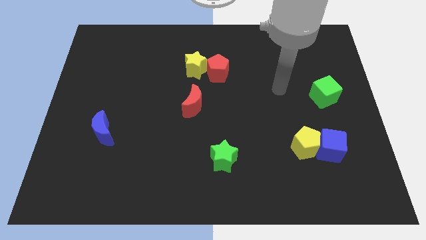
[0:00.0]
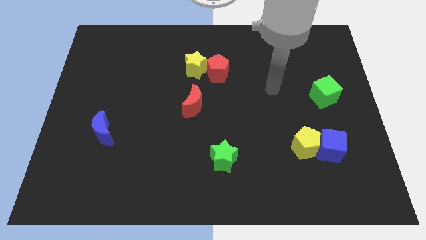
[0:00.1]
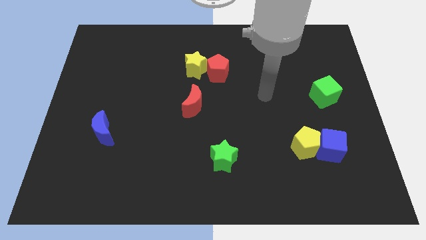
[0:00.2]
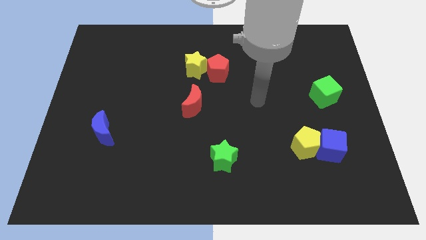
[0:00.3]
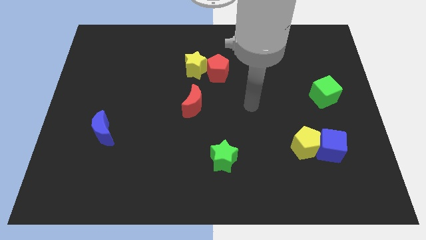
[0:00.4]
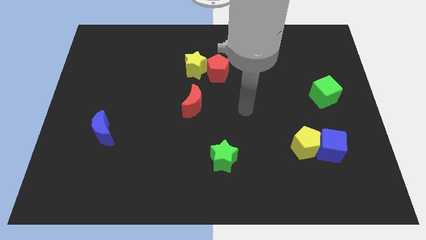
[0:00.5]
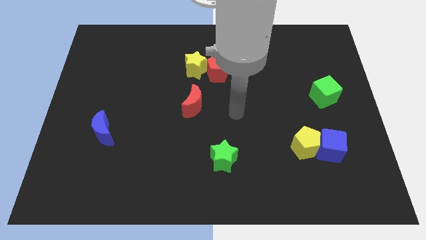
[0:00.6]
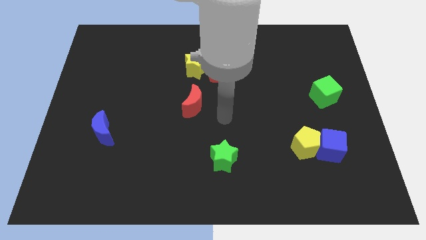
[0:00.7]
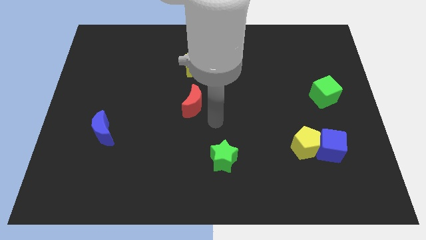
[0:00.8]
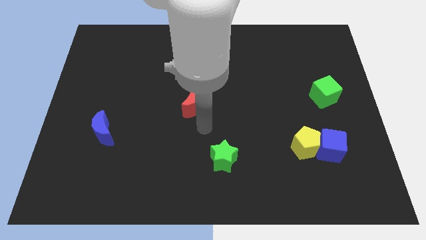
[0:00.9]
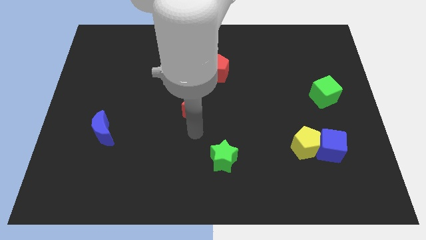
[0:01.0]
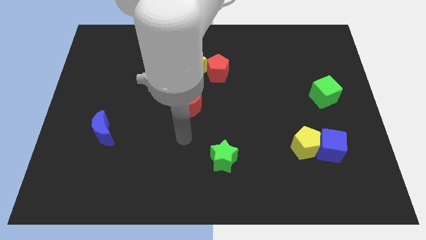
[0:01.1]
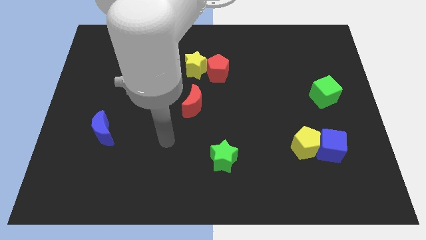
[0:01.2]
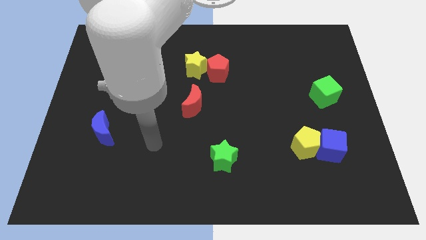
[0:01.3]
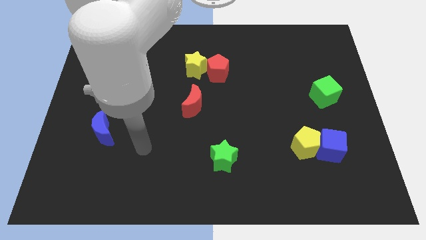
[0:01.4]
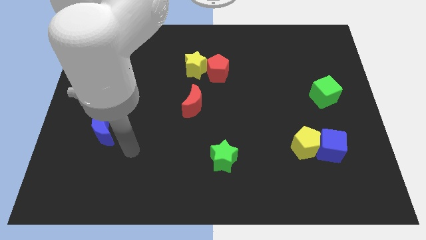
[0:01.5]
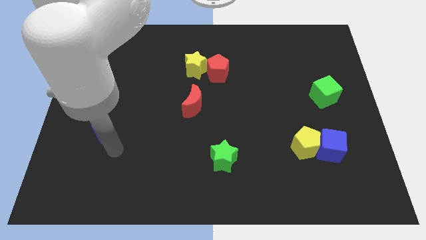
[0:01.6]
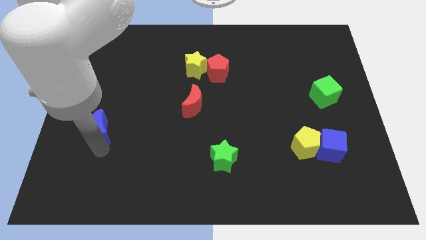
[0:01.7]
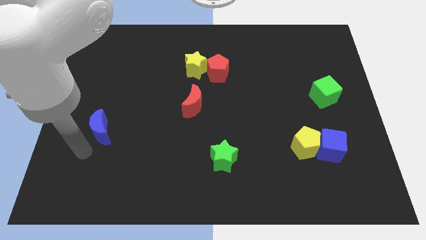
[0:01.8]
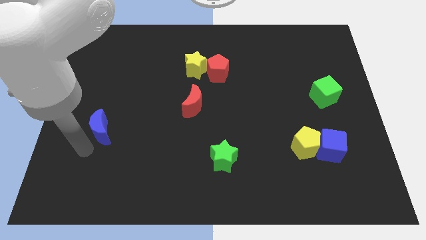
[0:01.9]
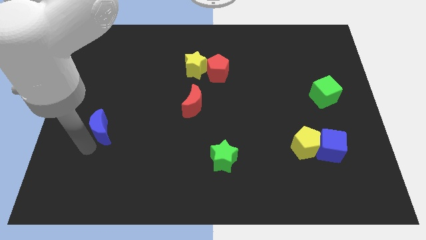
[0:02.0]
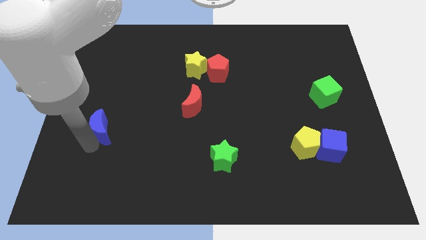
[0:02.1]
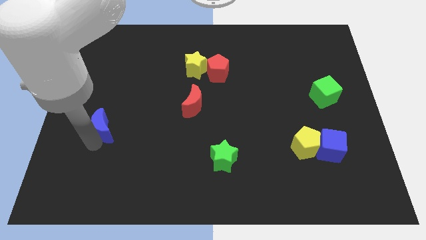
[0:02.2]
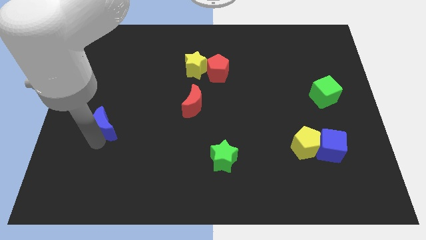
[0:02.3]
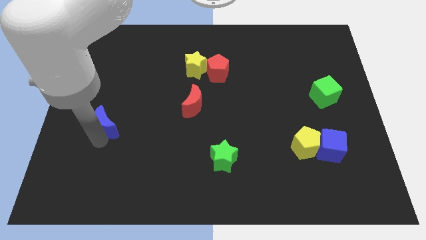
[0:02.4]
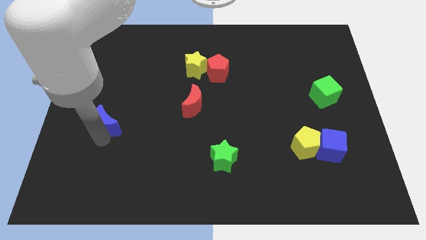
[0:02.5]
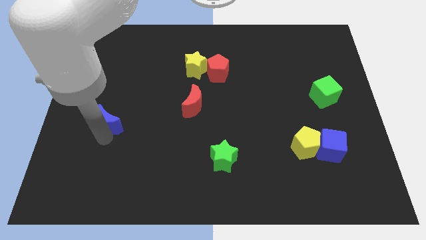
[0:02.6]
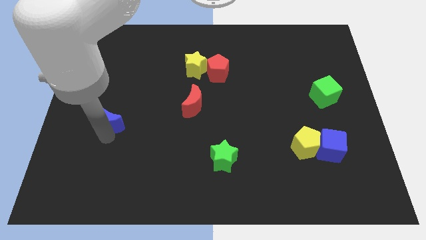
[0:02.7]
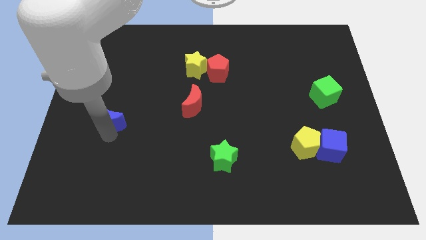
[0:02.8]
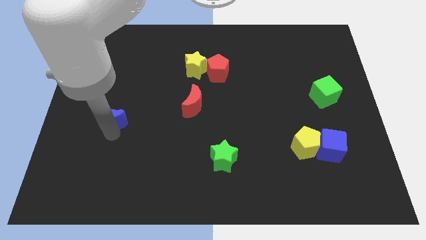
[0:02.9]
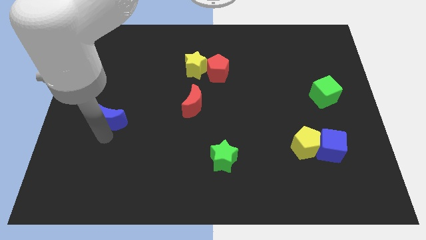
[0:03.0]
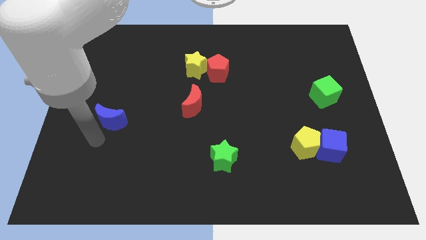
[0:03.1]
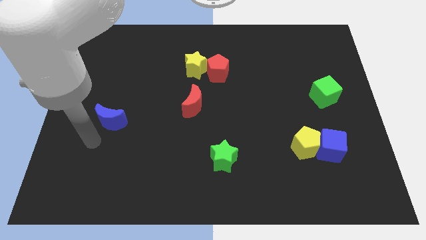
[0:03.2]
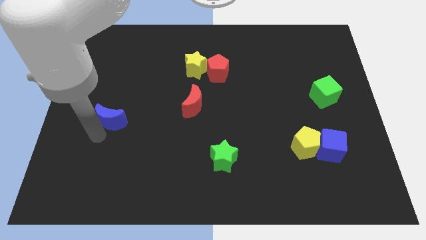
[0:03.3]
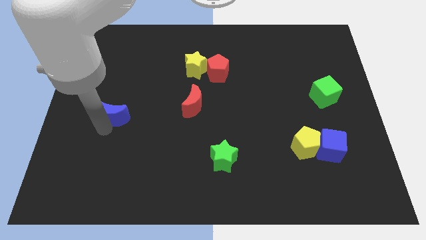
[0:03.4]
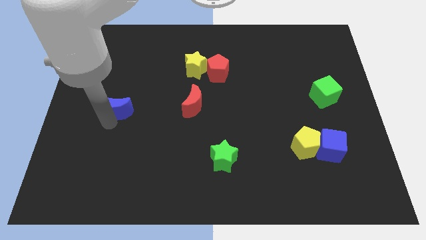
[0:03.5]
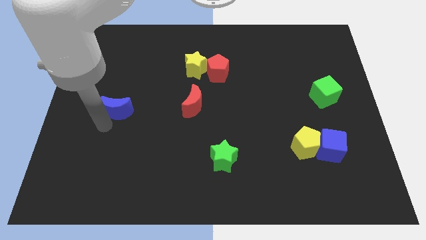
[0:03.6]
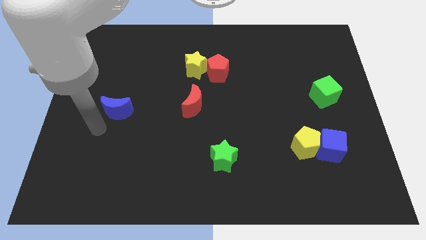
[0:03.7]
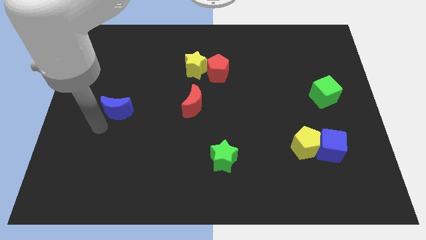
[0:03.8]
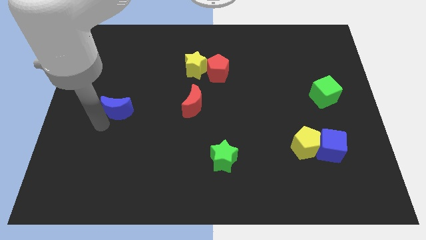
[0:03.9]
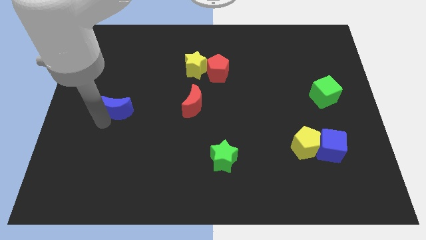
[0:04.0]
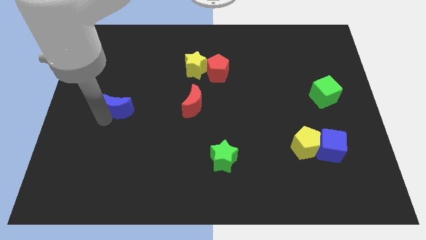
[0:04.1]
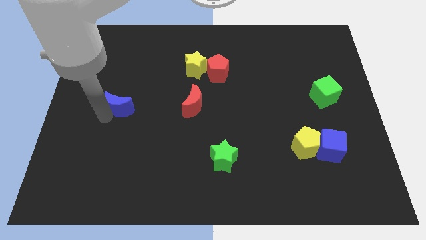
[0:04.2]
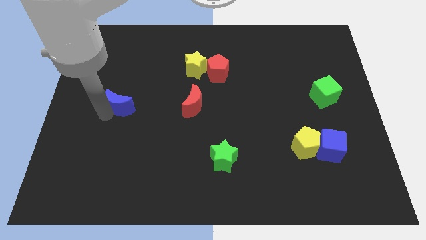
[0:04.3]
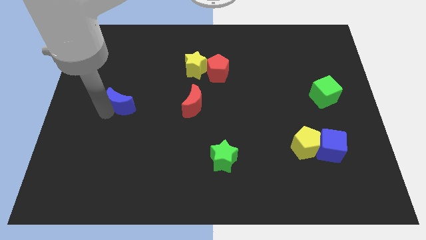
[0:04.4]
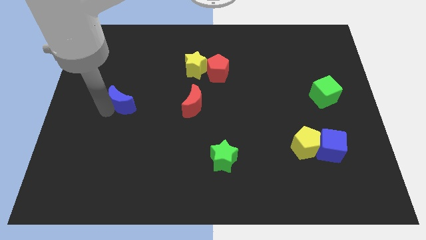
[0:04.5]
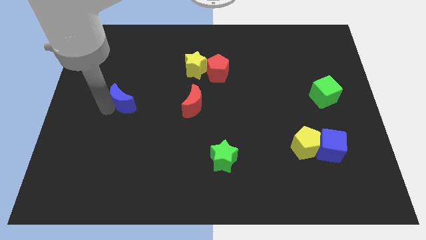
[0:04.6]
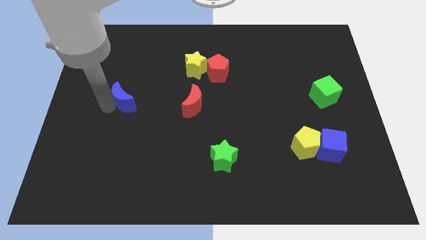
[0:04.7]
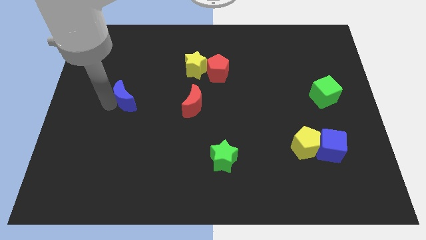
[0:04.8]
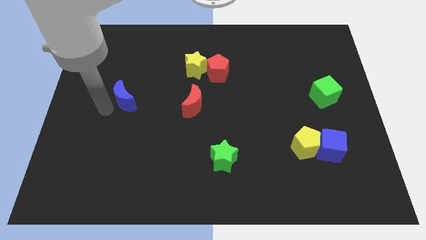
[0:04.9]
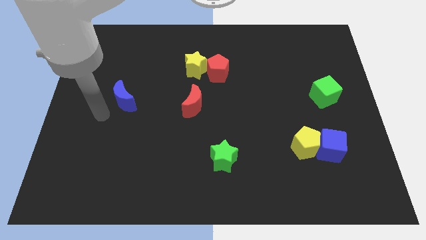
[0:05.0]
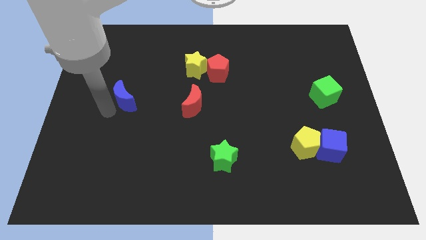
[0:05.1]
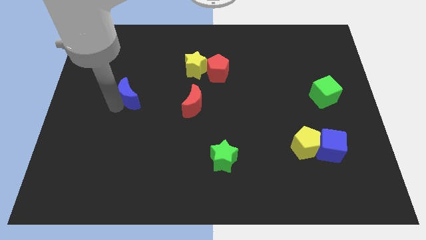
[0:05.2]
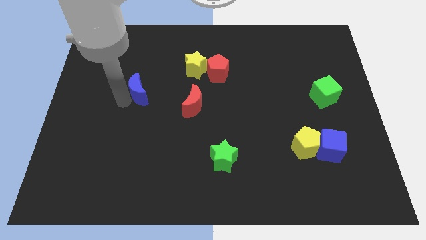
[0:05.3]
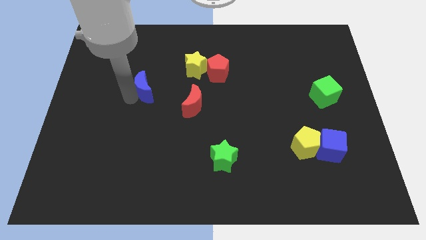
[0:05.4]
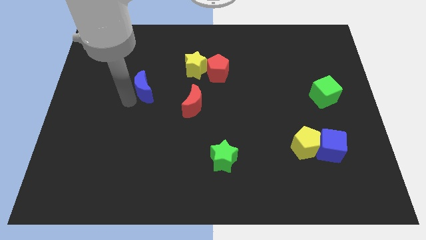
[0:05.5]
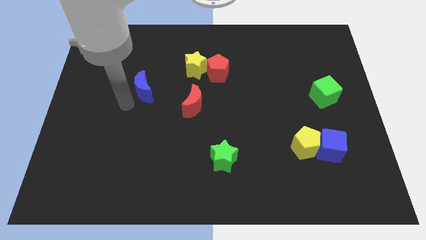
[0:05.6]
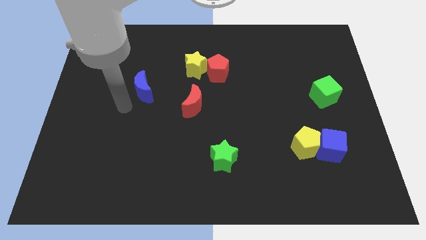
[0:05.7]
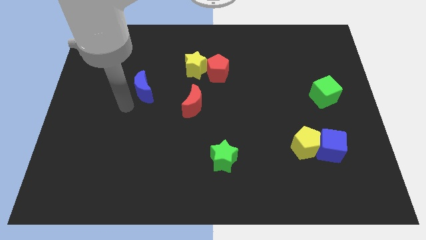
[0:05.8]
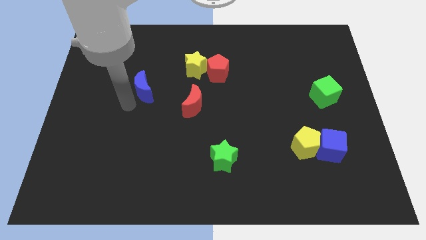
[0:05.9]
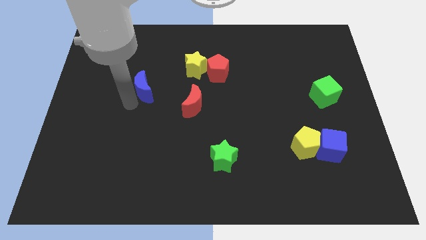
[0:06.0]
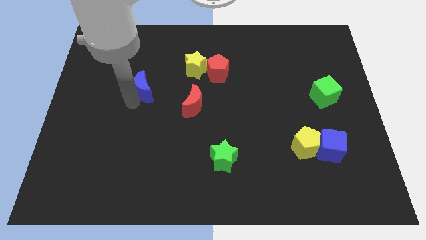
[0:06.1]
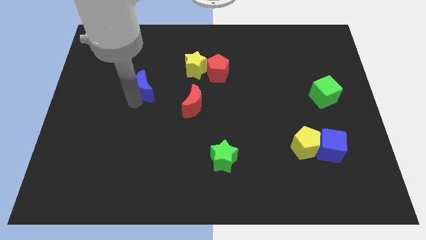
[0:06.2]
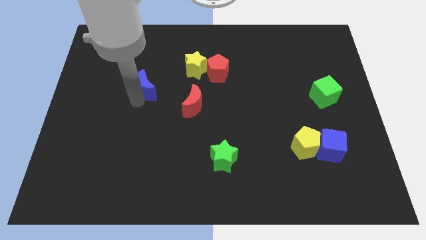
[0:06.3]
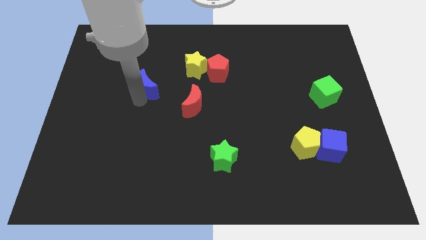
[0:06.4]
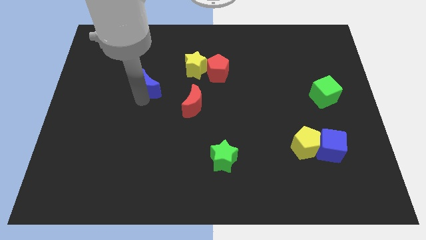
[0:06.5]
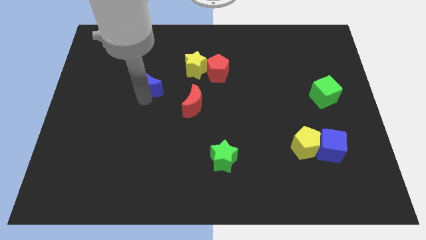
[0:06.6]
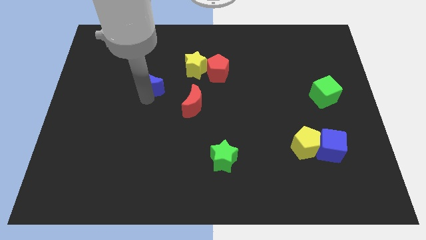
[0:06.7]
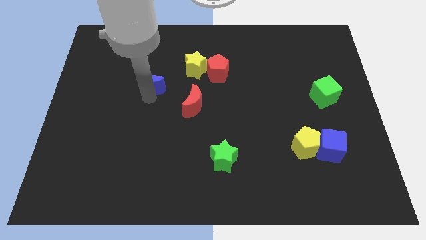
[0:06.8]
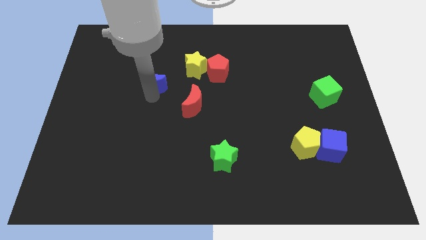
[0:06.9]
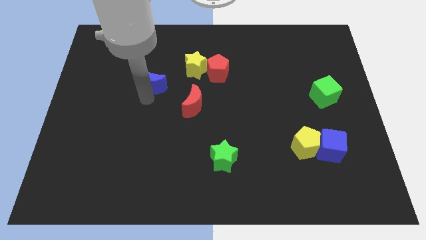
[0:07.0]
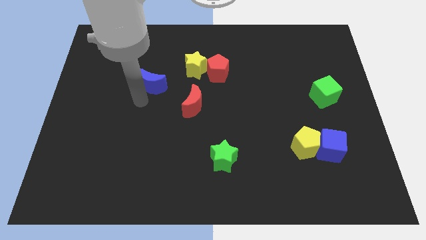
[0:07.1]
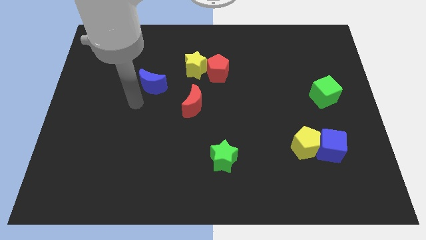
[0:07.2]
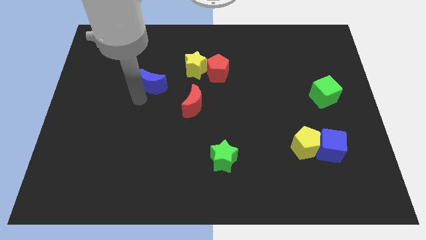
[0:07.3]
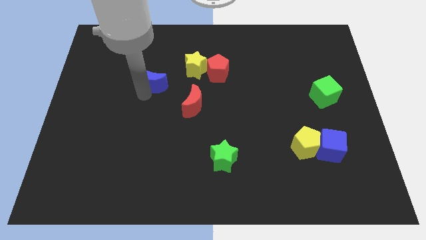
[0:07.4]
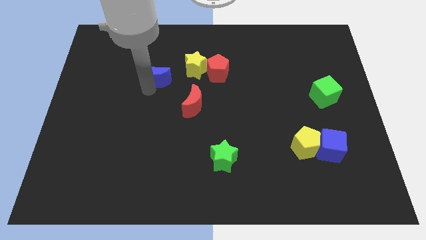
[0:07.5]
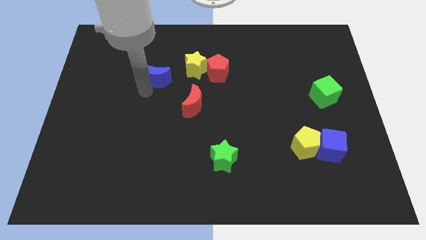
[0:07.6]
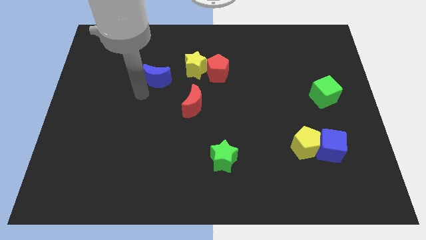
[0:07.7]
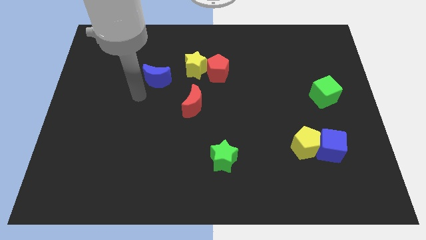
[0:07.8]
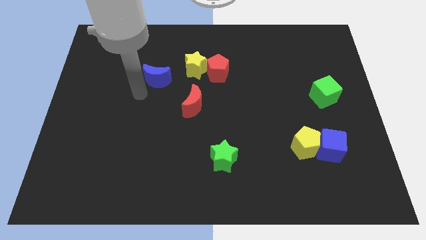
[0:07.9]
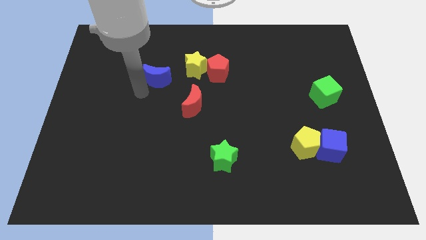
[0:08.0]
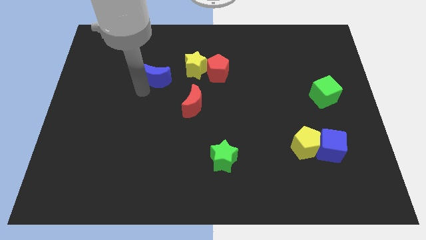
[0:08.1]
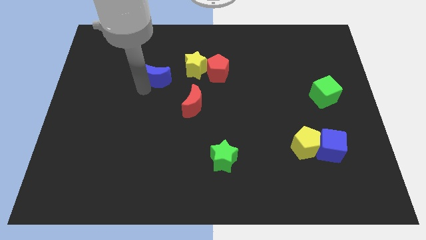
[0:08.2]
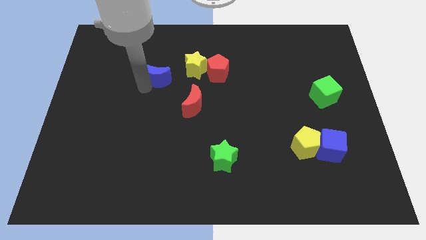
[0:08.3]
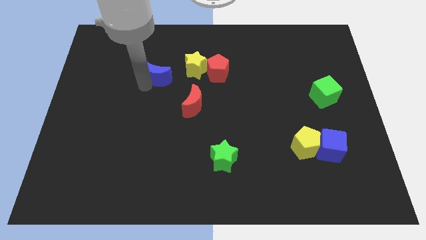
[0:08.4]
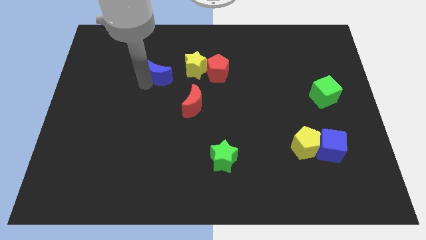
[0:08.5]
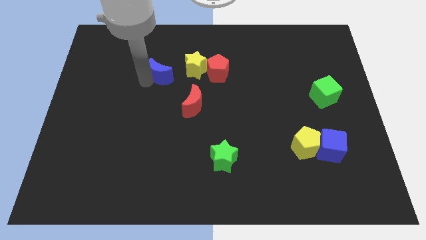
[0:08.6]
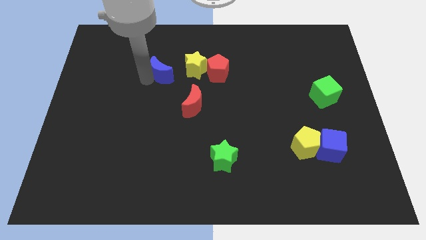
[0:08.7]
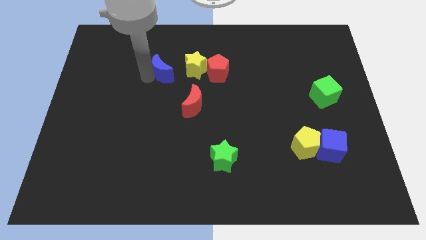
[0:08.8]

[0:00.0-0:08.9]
push the blue moon up and right diagonally
